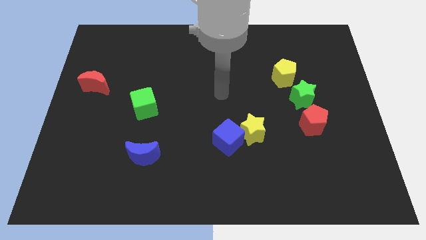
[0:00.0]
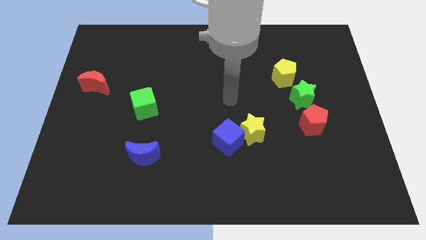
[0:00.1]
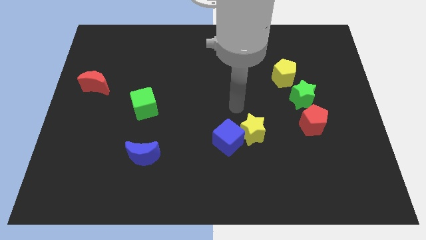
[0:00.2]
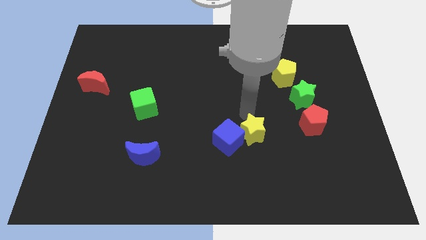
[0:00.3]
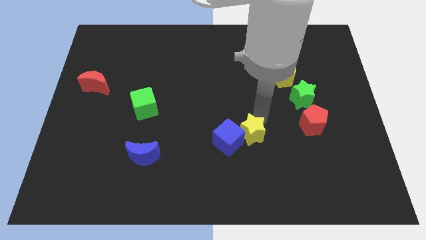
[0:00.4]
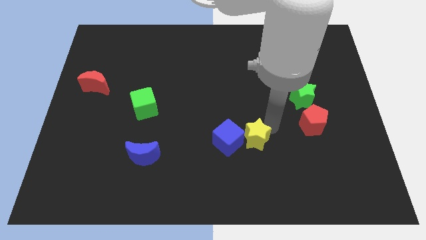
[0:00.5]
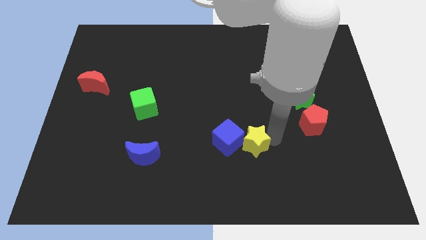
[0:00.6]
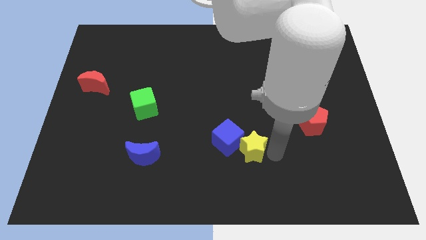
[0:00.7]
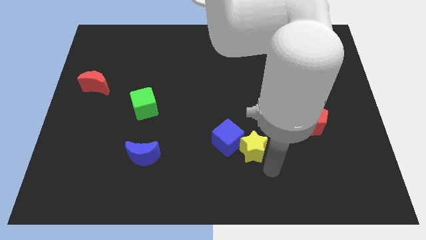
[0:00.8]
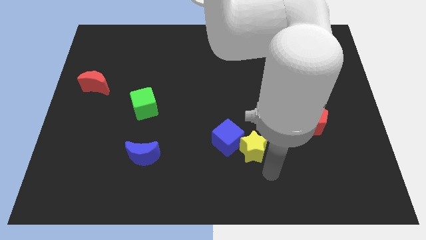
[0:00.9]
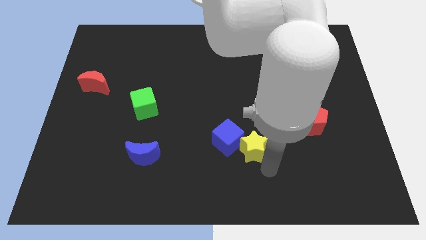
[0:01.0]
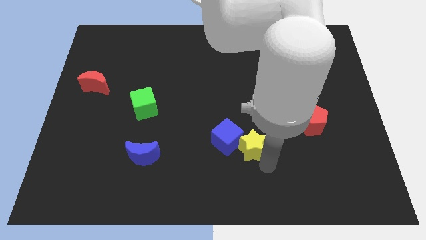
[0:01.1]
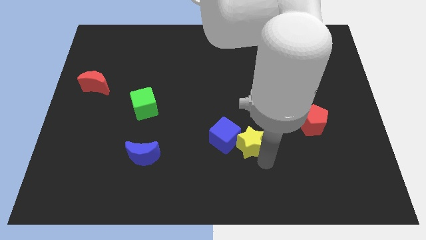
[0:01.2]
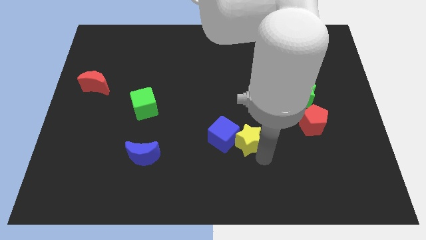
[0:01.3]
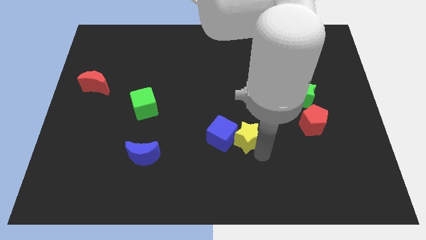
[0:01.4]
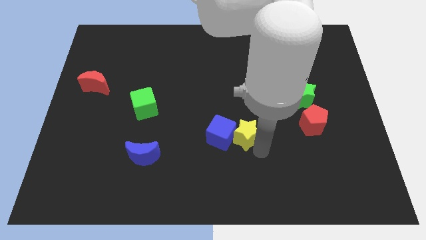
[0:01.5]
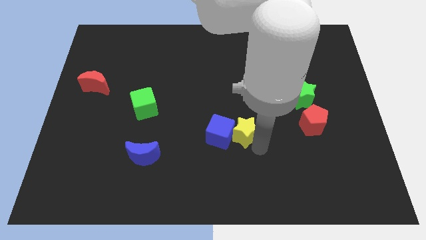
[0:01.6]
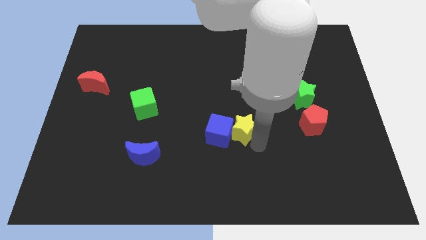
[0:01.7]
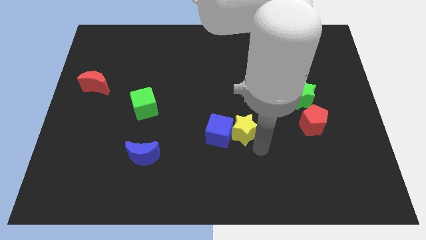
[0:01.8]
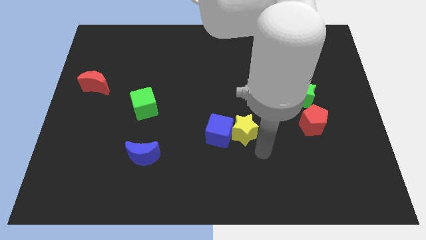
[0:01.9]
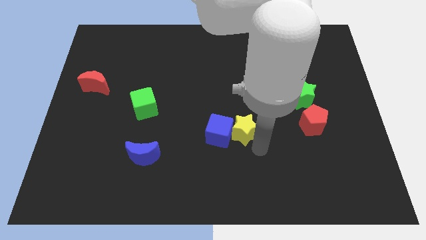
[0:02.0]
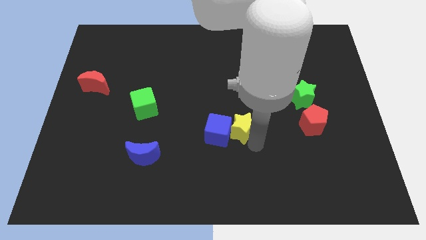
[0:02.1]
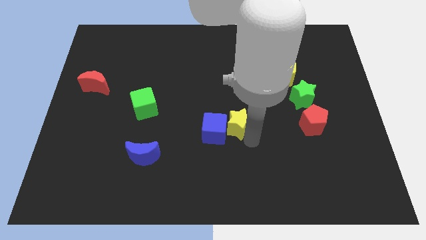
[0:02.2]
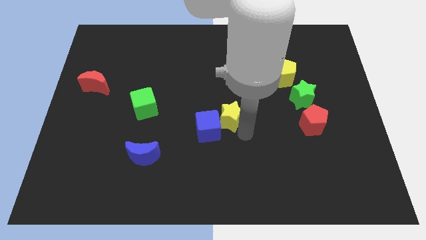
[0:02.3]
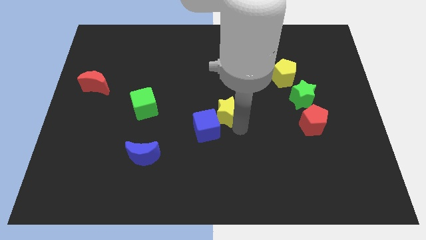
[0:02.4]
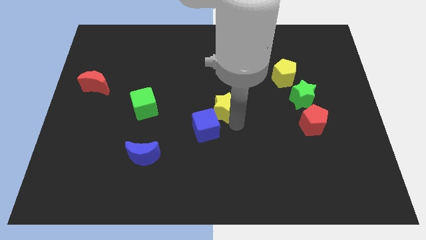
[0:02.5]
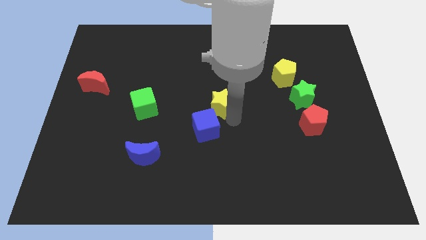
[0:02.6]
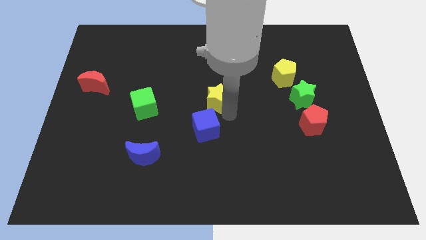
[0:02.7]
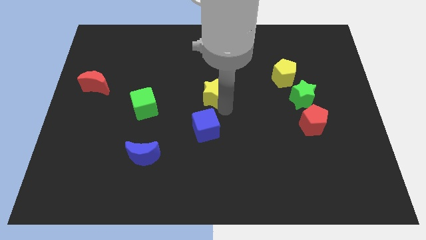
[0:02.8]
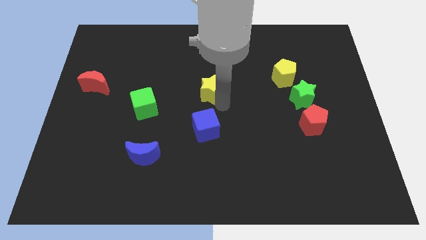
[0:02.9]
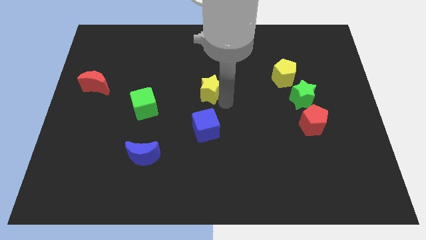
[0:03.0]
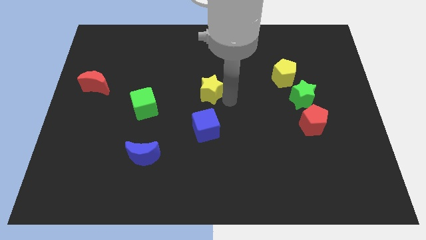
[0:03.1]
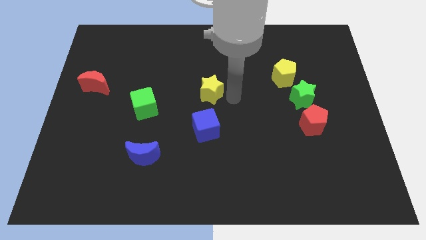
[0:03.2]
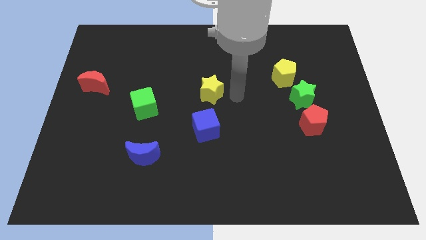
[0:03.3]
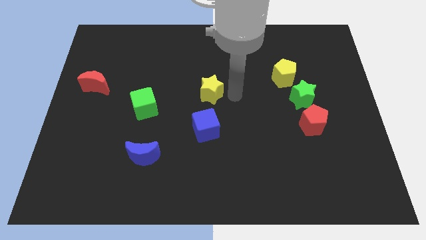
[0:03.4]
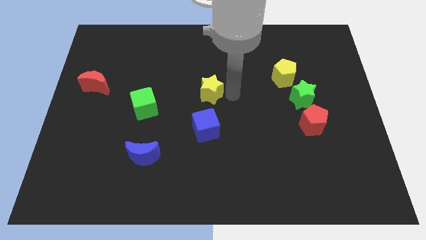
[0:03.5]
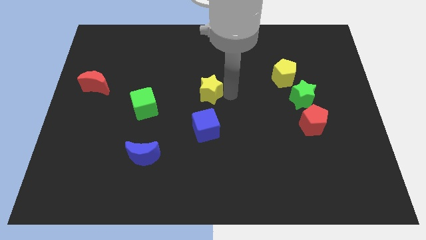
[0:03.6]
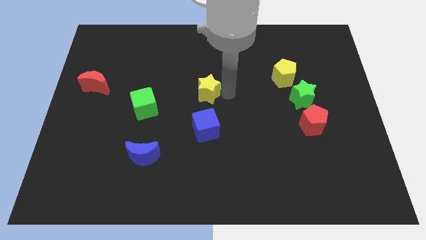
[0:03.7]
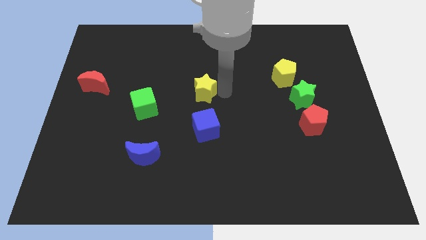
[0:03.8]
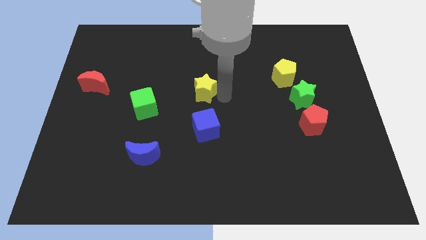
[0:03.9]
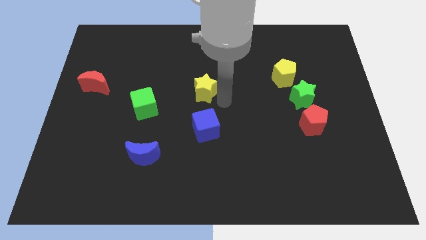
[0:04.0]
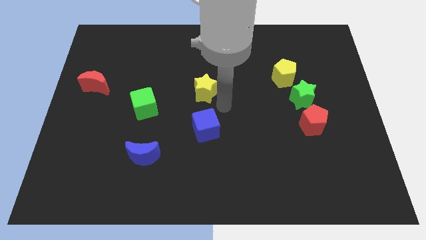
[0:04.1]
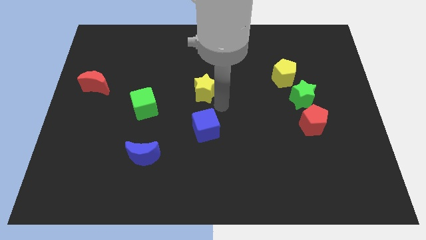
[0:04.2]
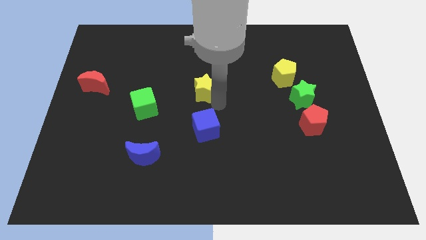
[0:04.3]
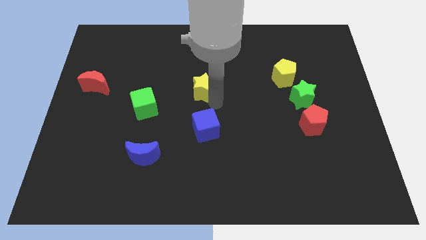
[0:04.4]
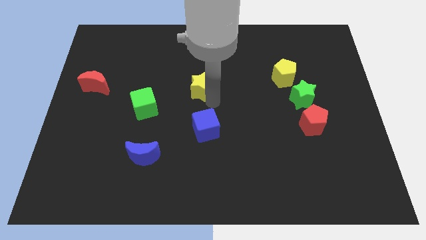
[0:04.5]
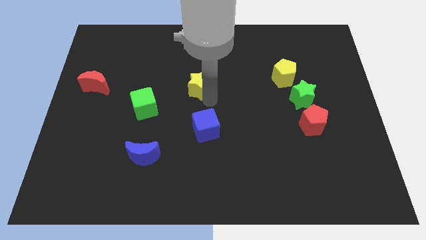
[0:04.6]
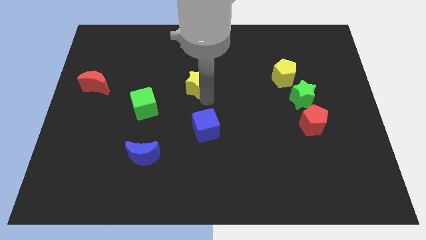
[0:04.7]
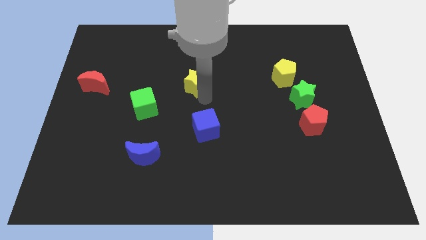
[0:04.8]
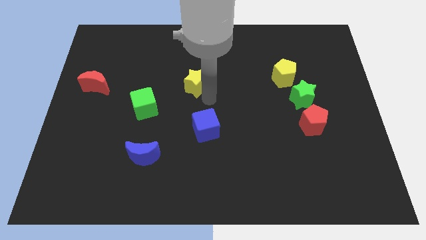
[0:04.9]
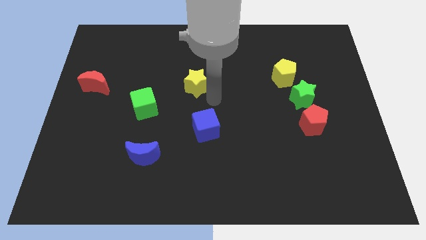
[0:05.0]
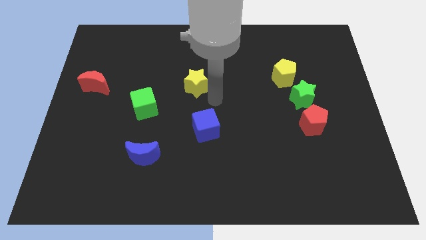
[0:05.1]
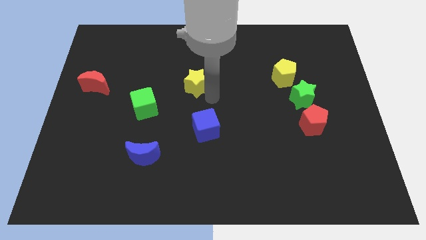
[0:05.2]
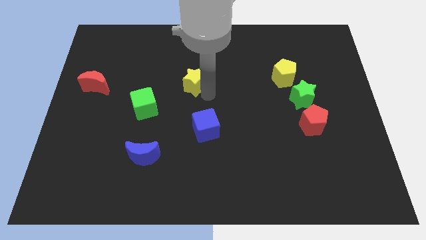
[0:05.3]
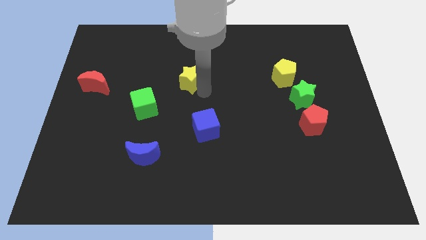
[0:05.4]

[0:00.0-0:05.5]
move the yellow star diagonally up and to the left

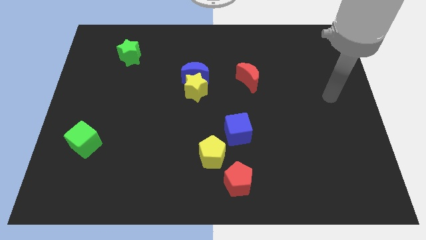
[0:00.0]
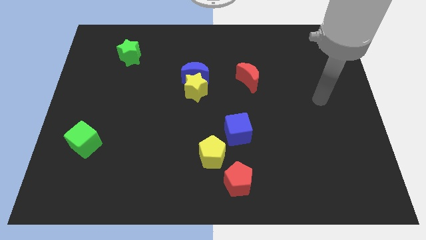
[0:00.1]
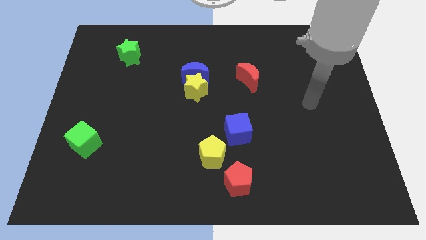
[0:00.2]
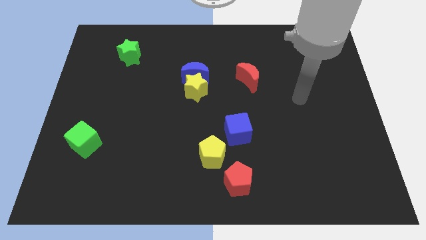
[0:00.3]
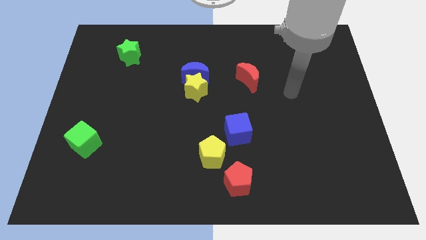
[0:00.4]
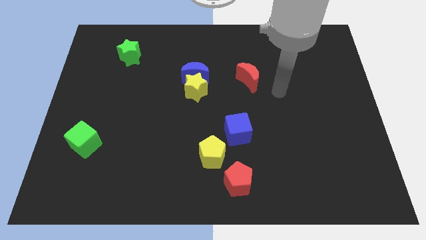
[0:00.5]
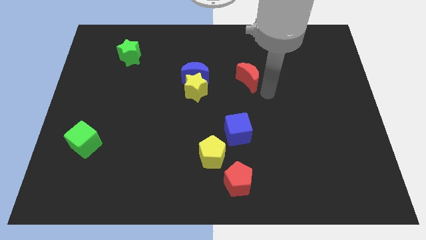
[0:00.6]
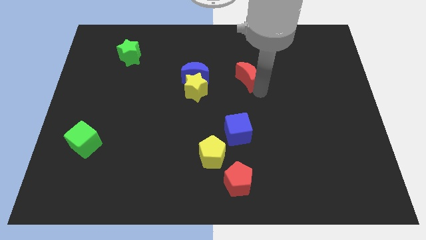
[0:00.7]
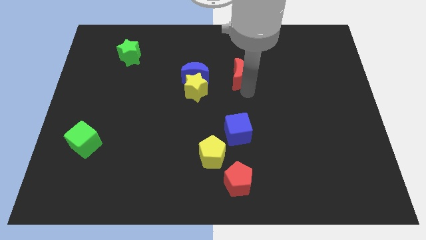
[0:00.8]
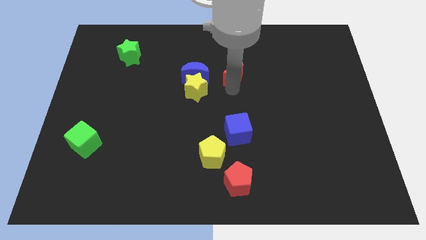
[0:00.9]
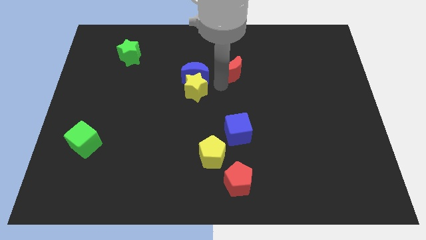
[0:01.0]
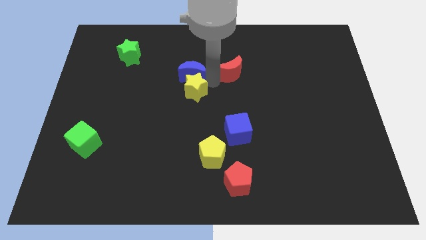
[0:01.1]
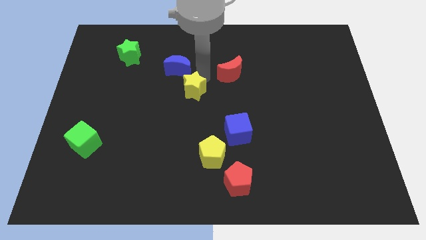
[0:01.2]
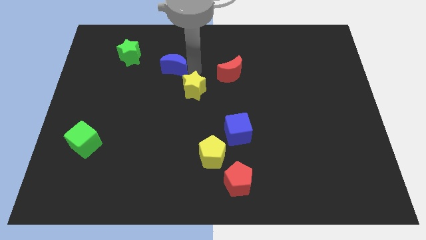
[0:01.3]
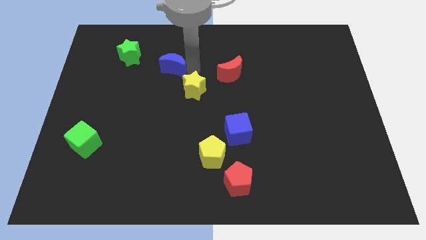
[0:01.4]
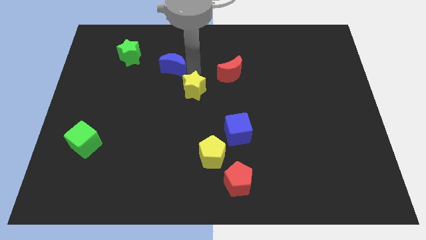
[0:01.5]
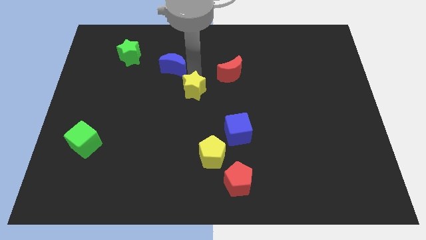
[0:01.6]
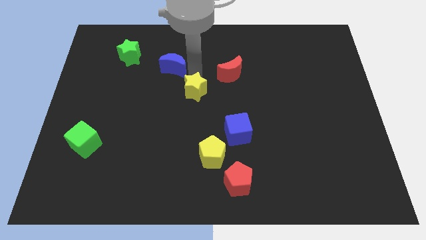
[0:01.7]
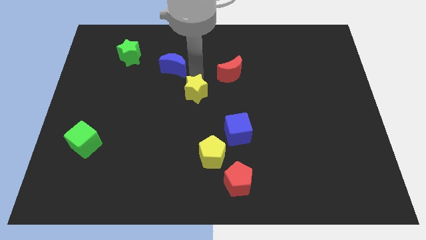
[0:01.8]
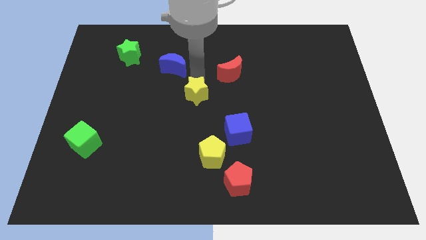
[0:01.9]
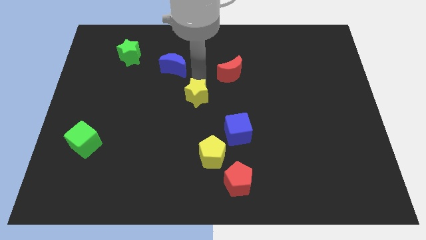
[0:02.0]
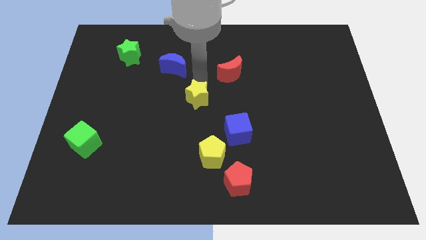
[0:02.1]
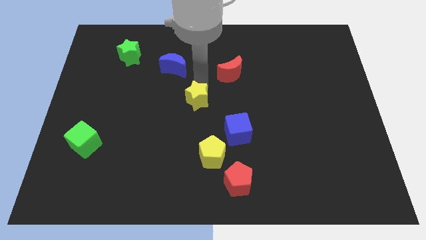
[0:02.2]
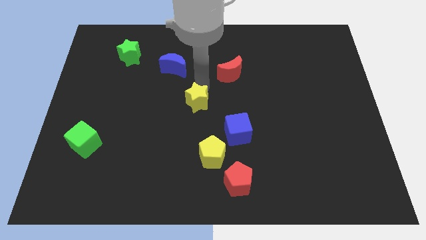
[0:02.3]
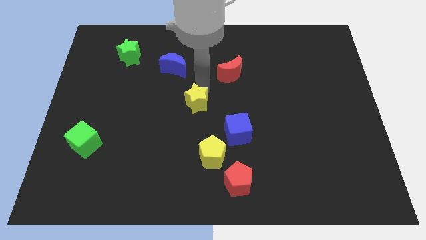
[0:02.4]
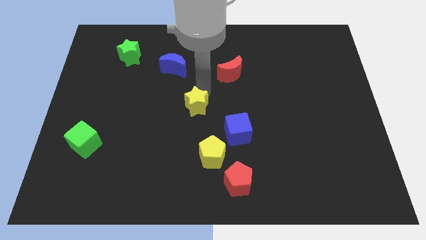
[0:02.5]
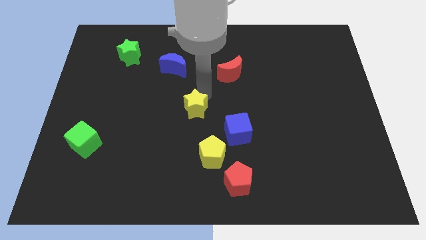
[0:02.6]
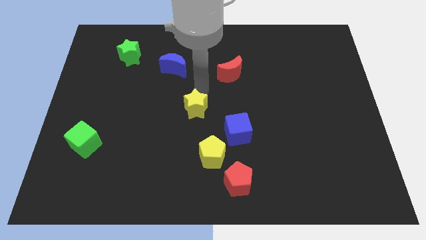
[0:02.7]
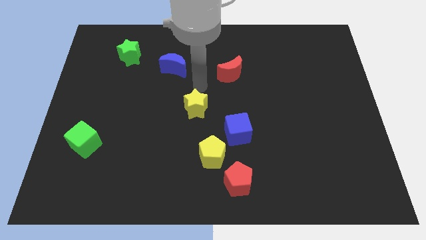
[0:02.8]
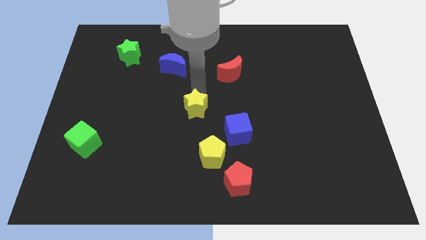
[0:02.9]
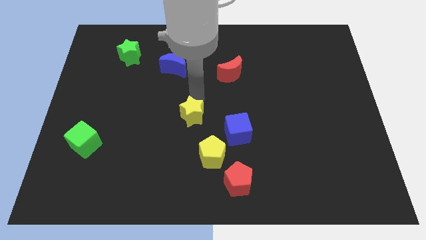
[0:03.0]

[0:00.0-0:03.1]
slide the yellow star a little downwards
